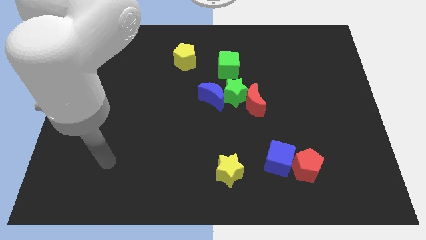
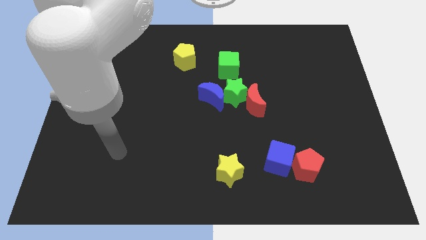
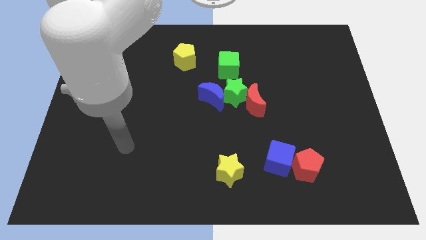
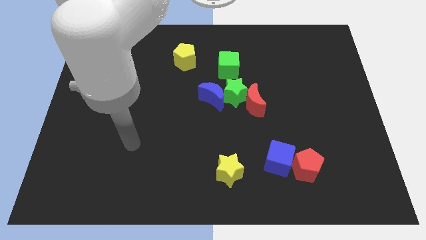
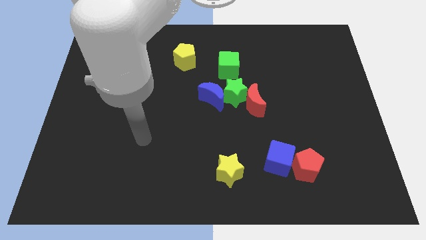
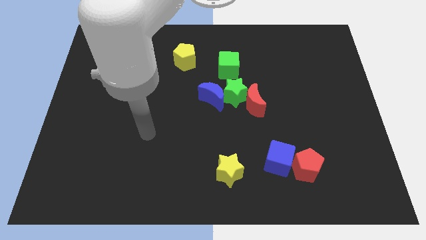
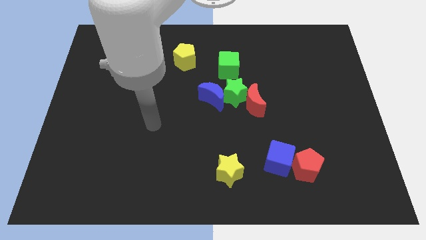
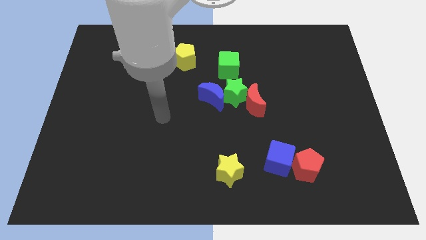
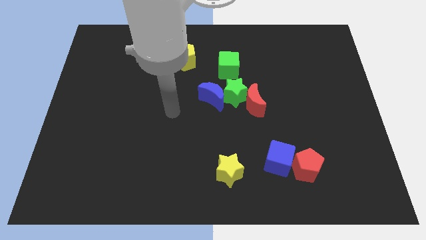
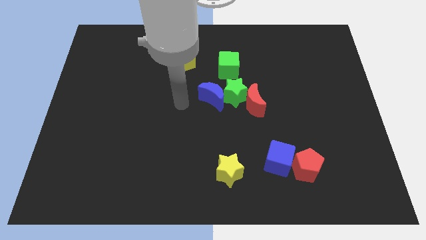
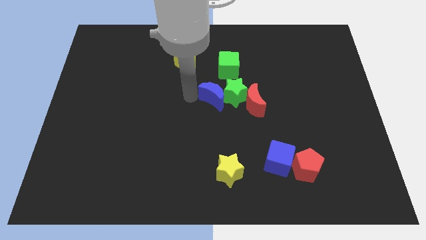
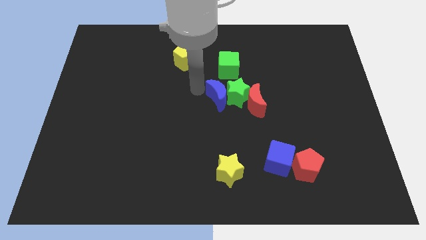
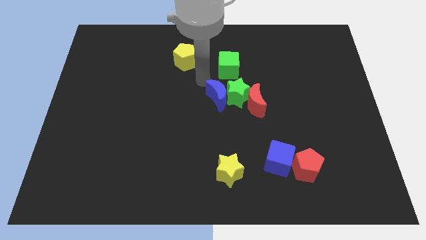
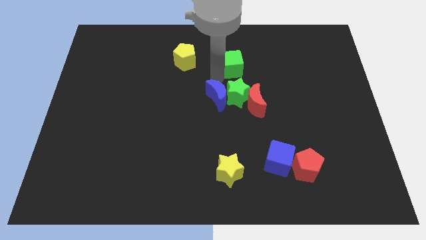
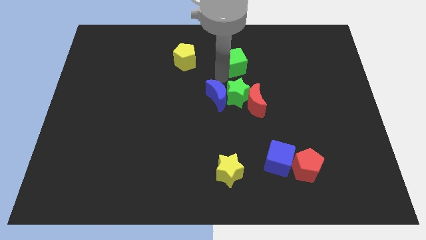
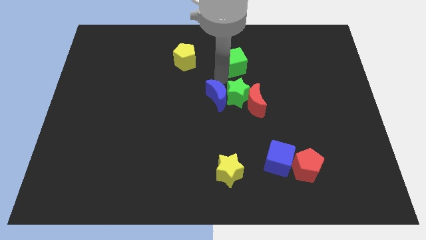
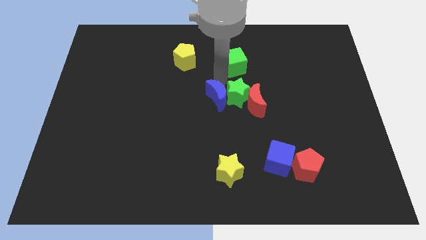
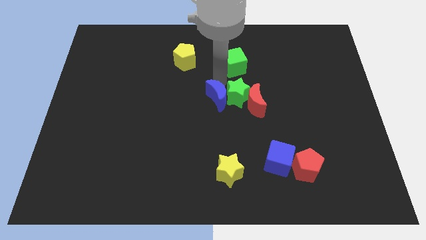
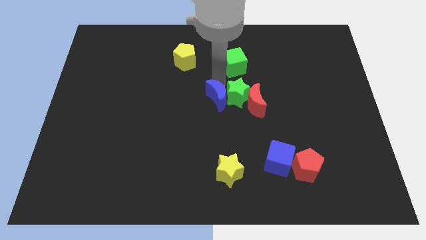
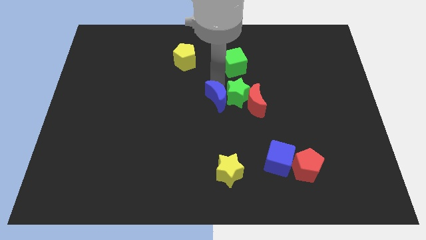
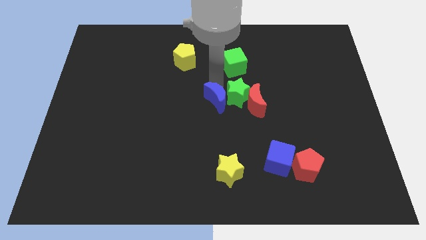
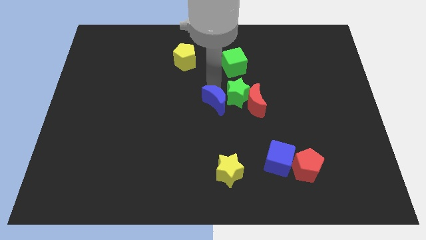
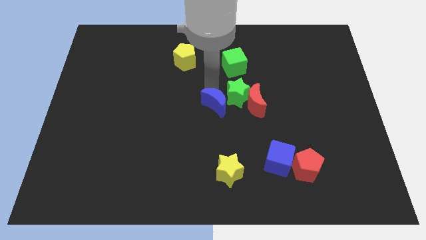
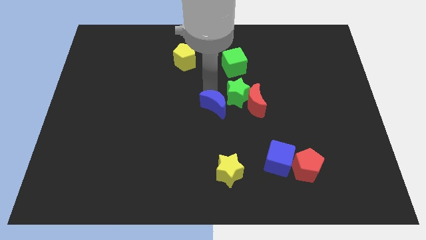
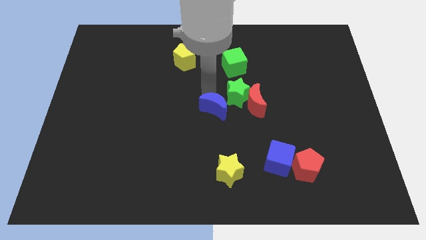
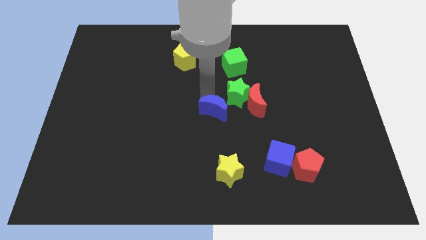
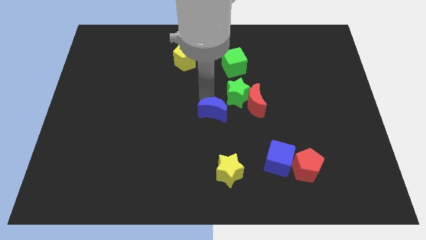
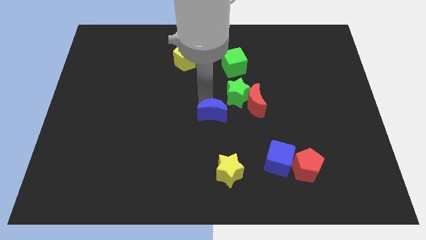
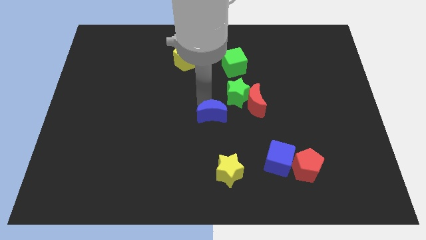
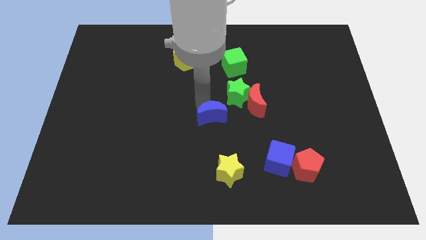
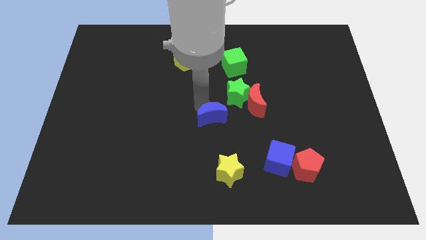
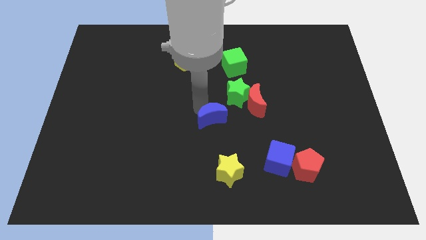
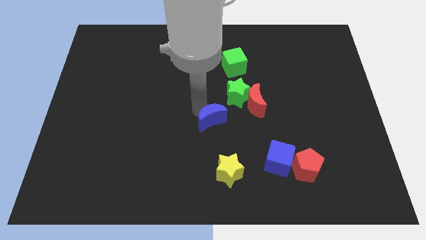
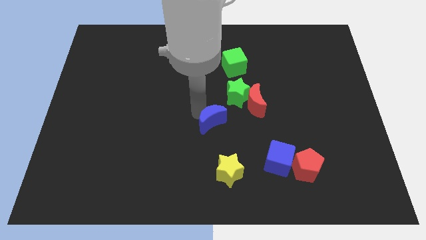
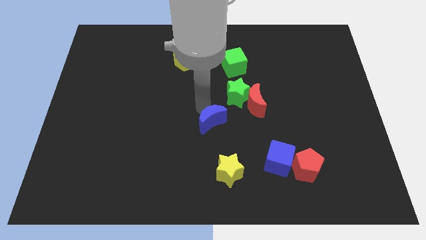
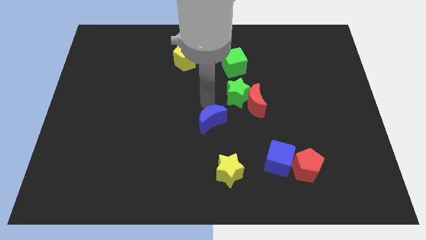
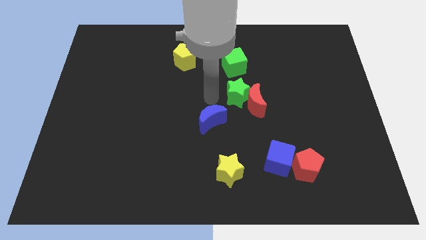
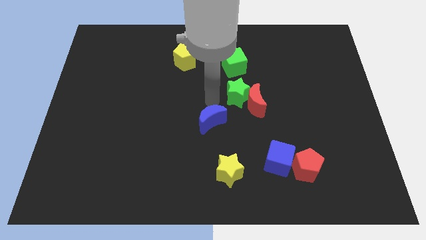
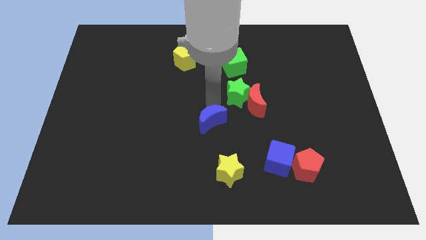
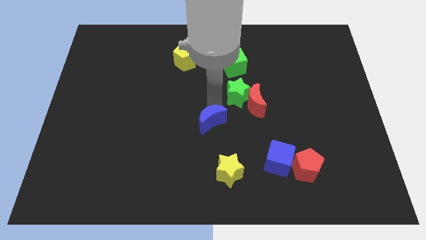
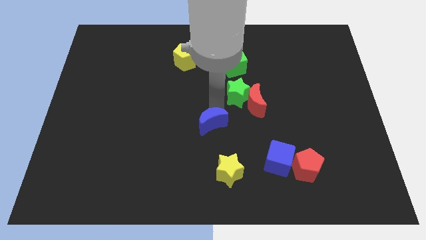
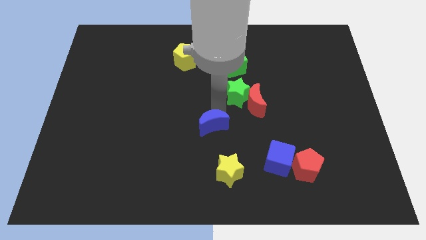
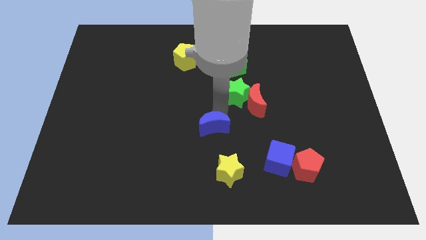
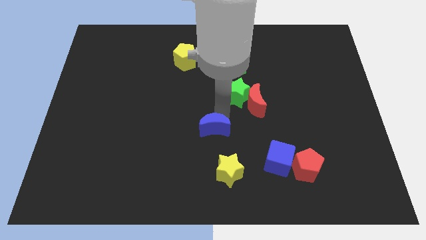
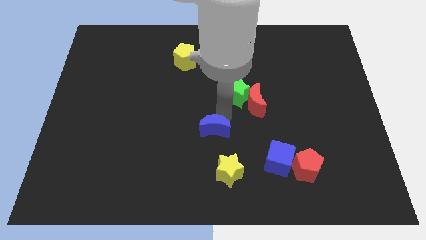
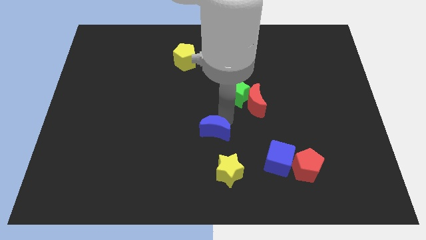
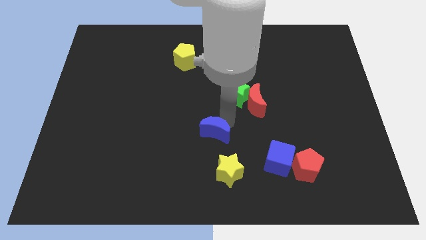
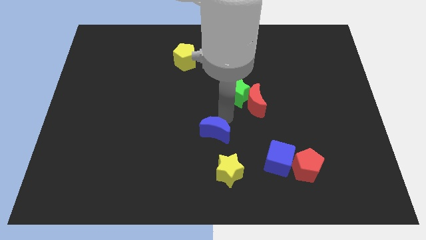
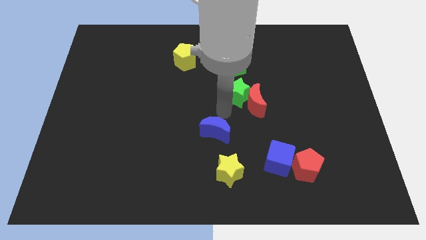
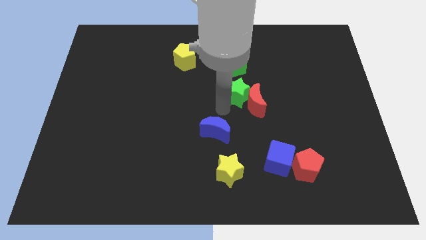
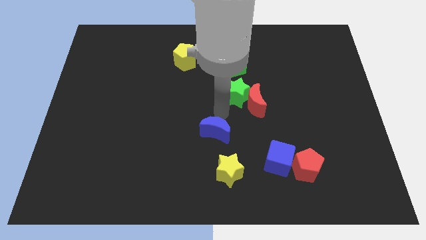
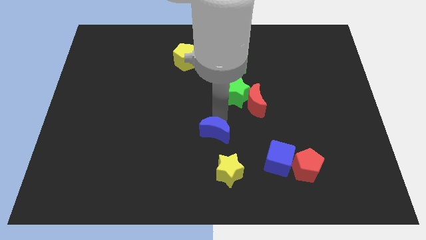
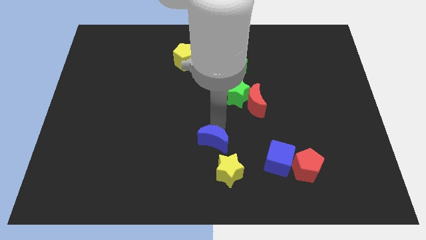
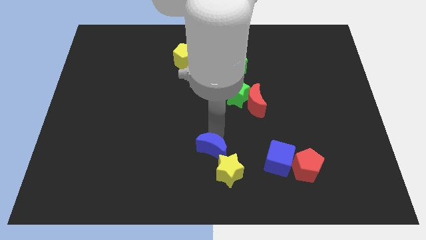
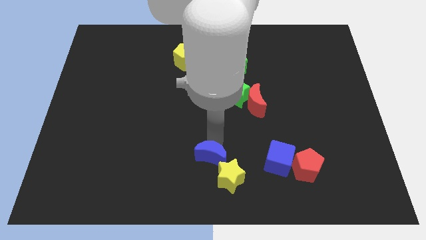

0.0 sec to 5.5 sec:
slide the blue moon to the bottom
